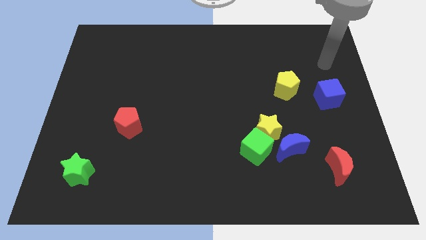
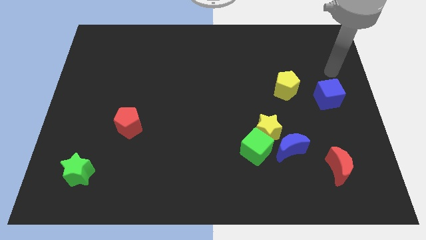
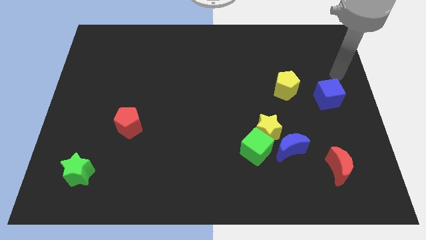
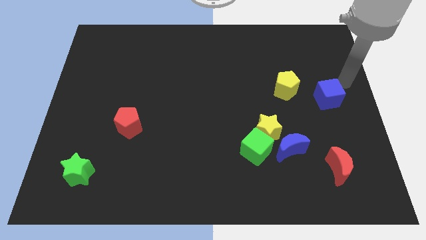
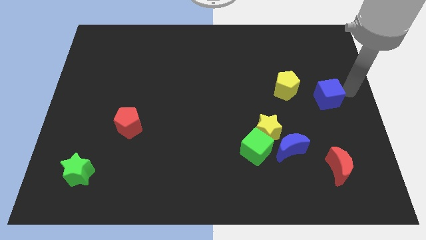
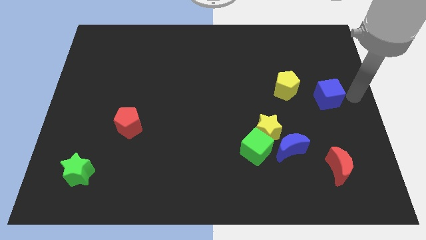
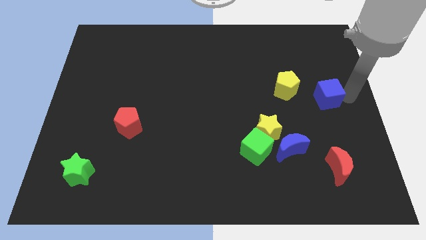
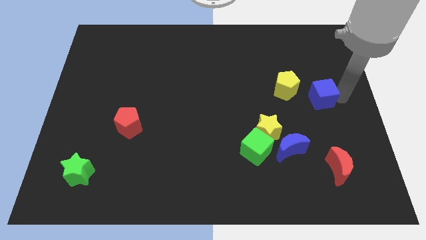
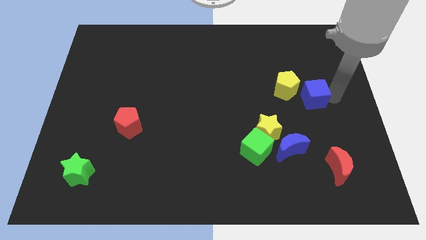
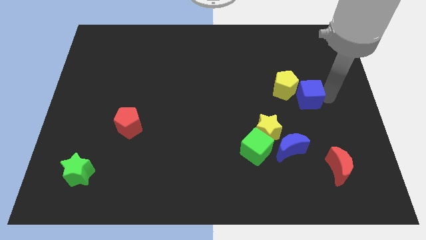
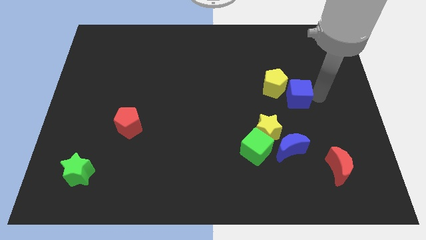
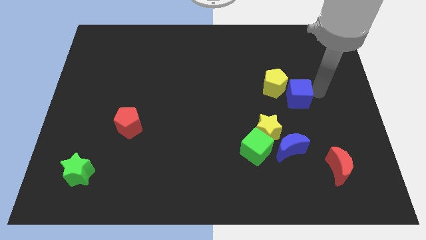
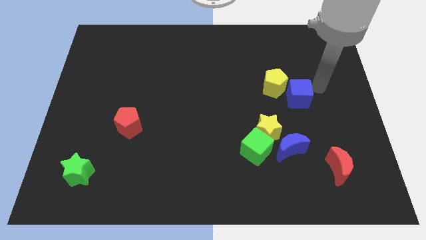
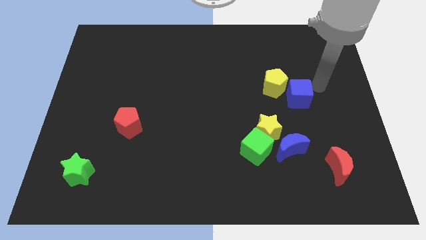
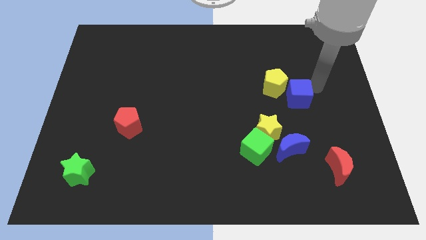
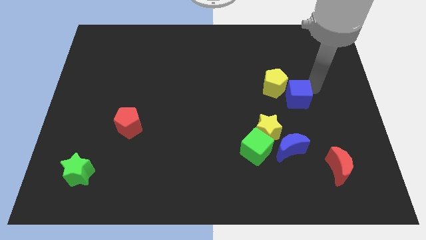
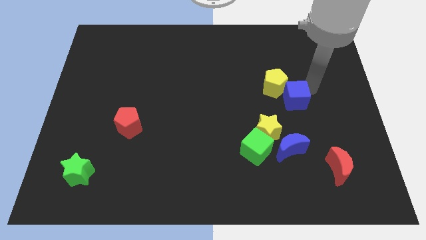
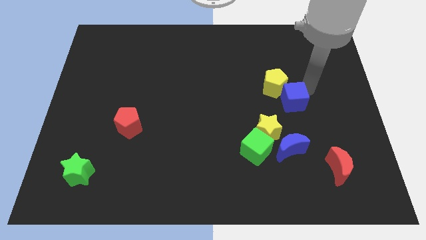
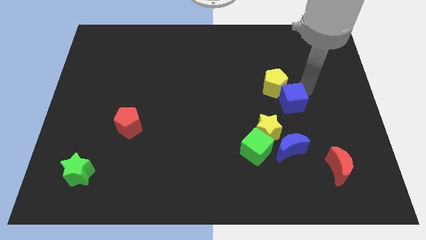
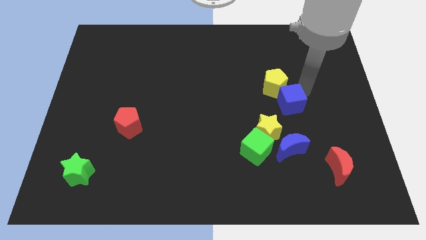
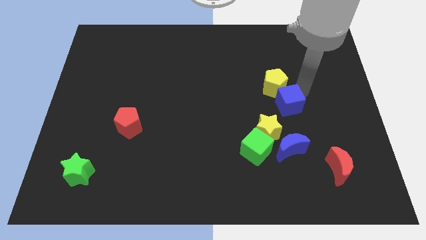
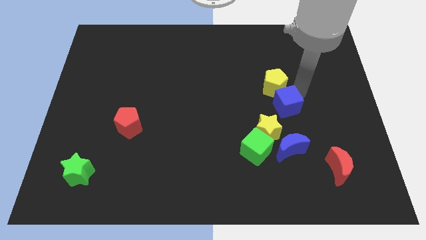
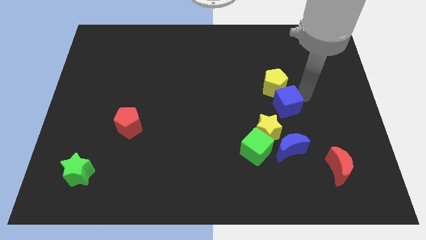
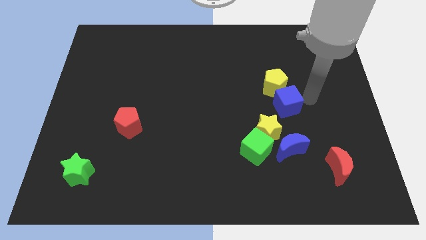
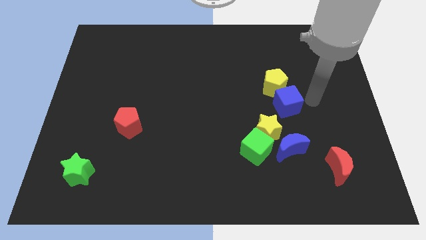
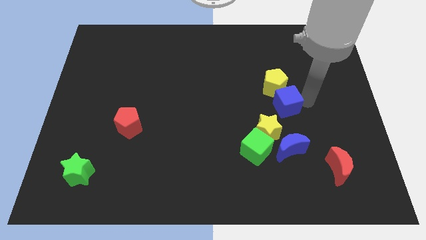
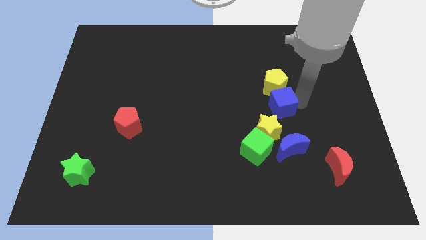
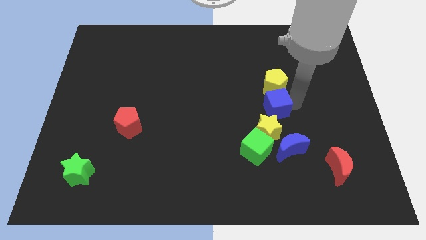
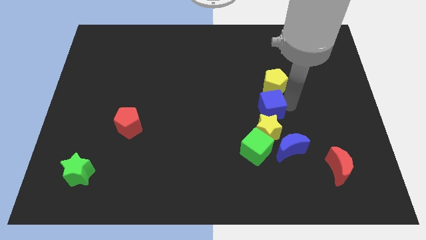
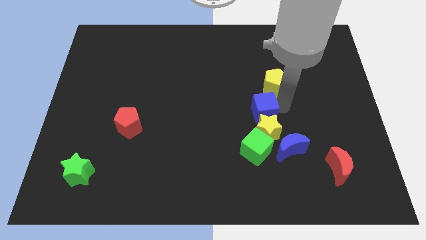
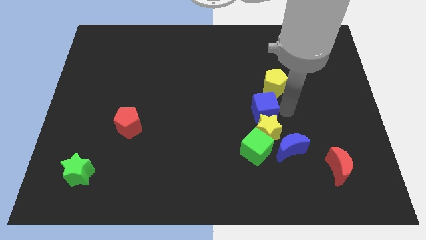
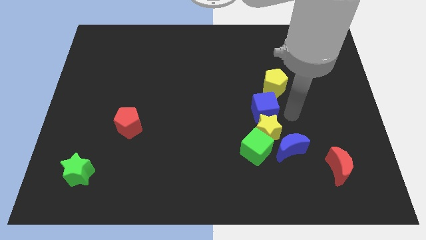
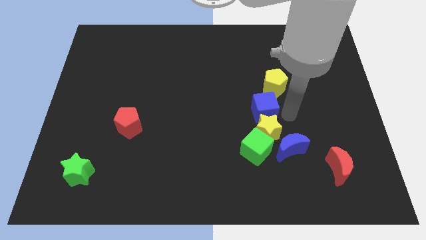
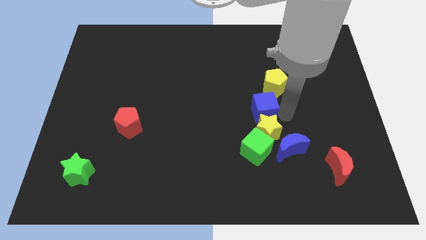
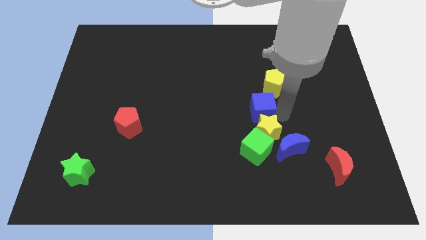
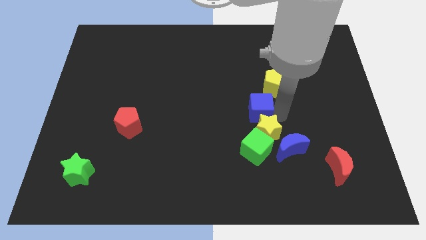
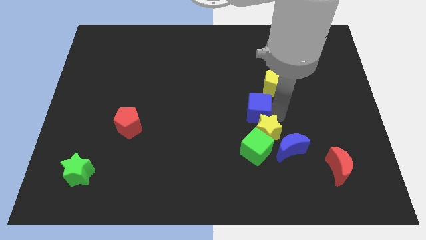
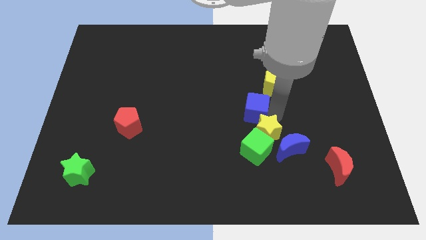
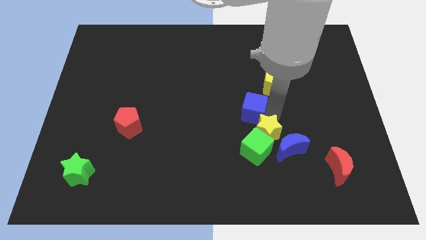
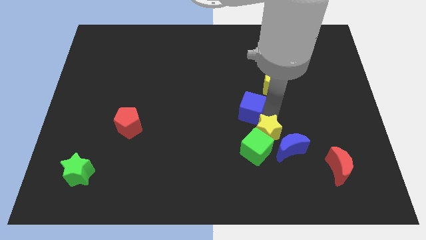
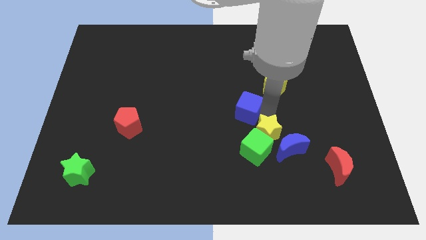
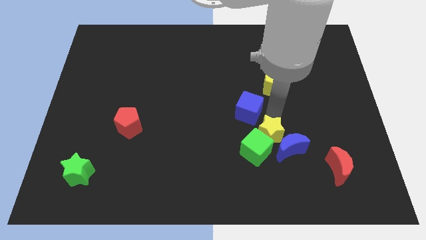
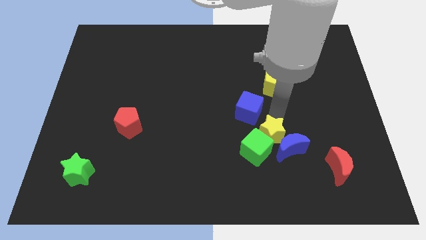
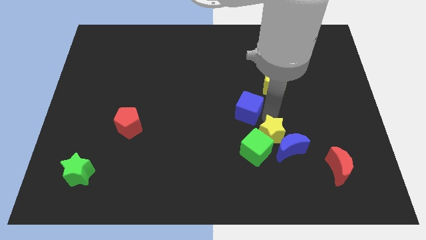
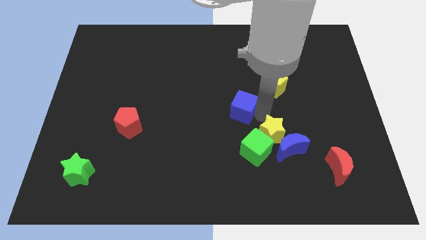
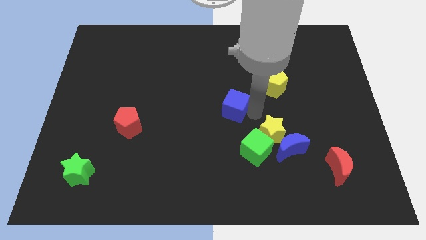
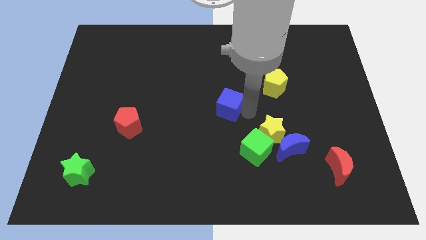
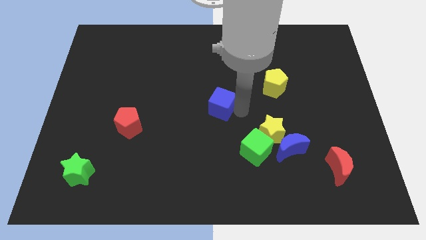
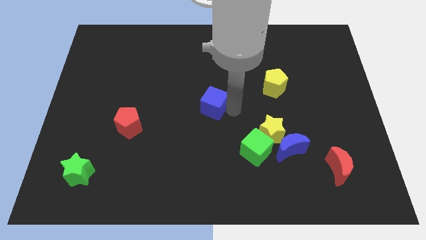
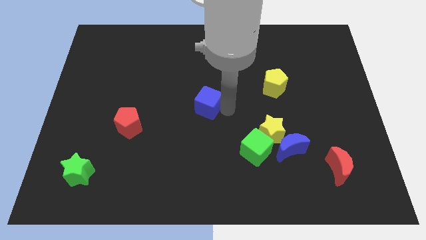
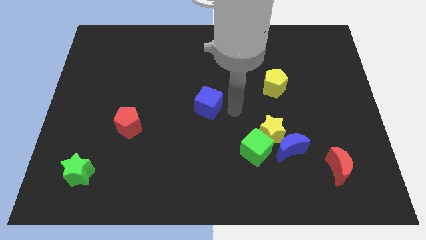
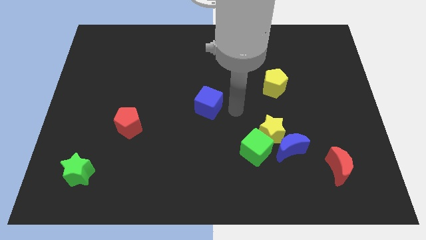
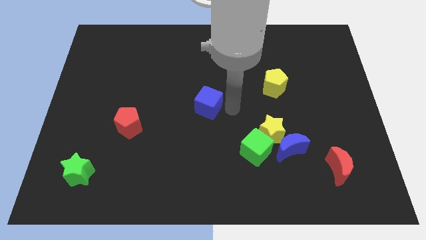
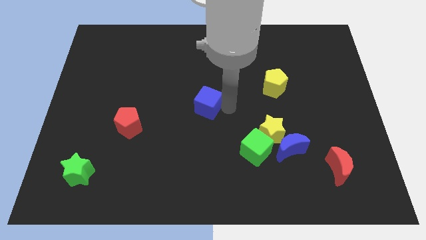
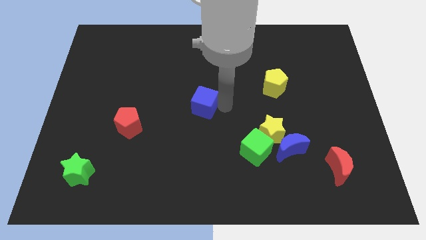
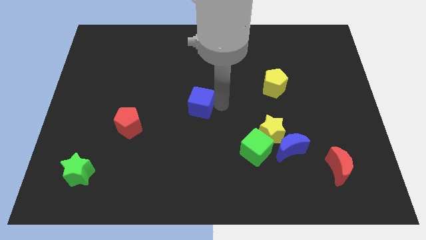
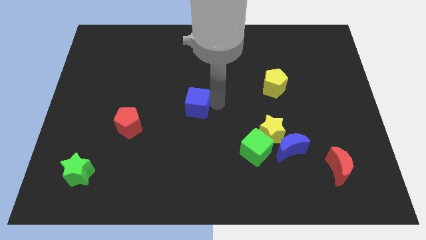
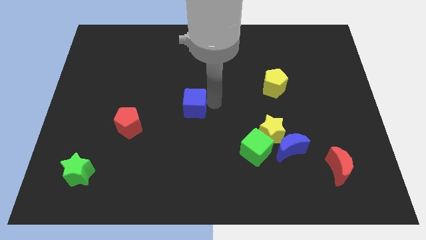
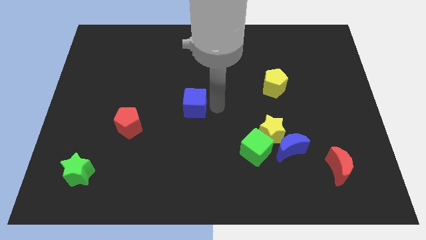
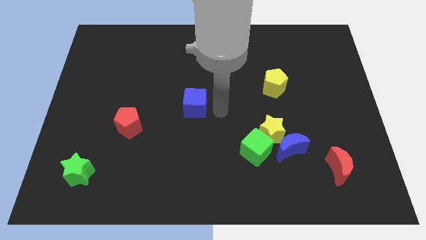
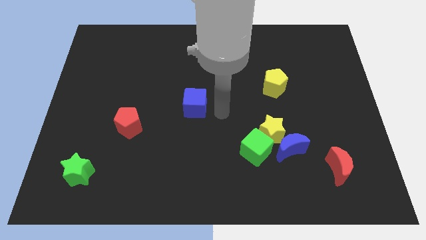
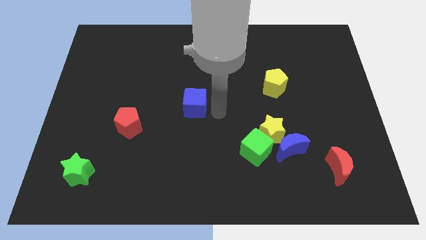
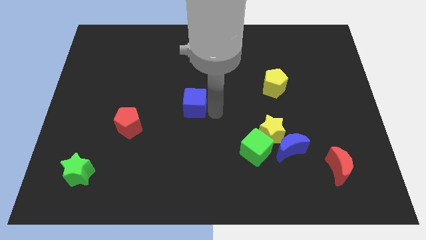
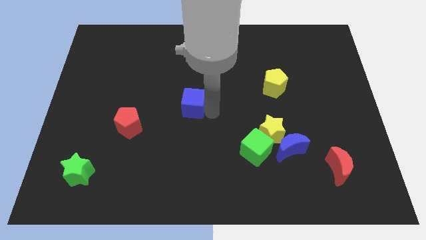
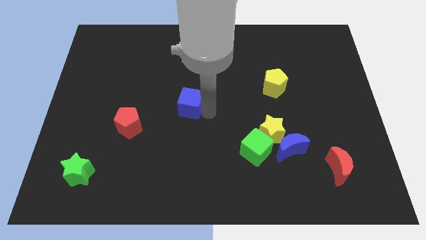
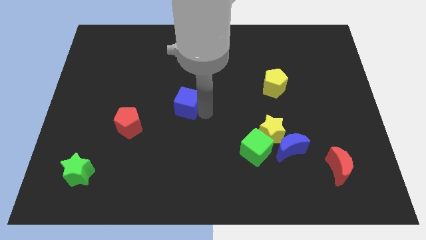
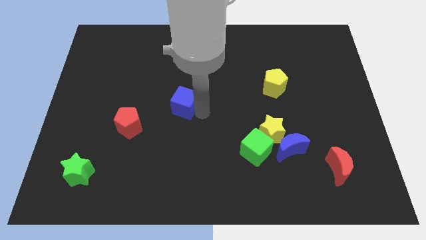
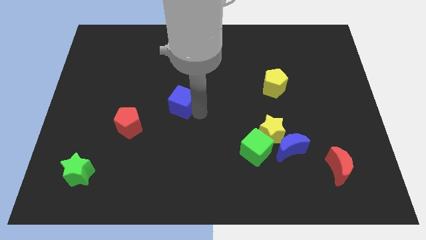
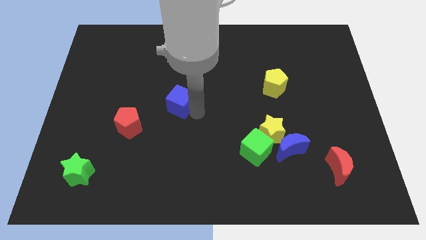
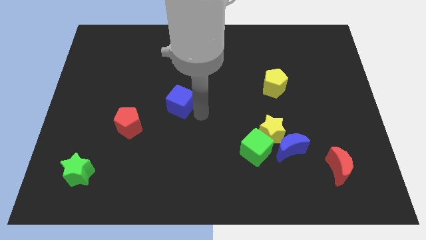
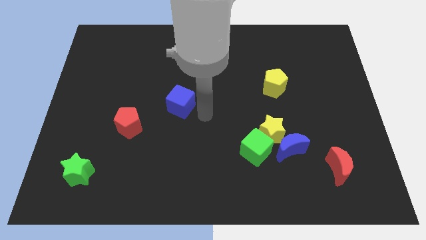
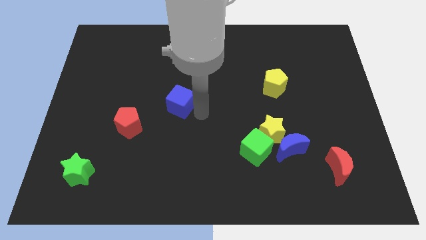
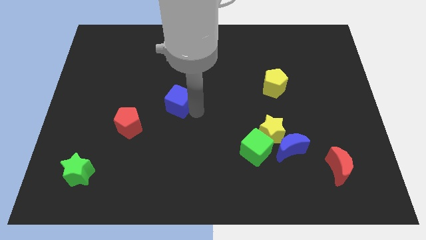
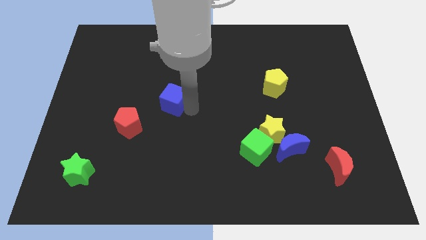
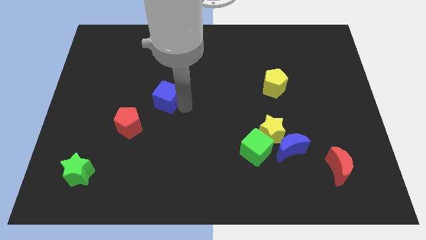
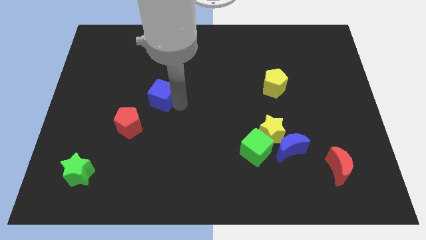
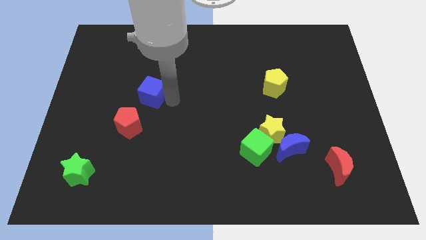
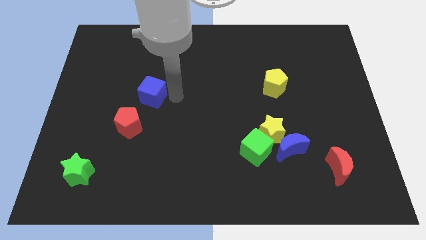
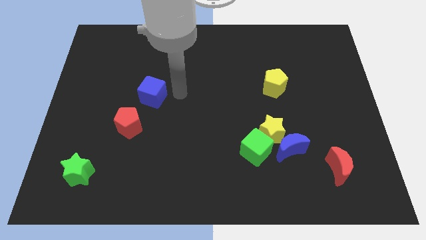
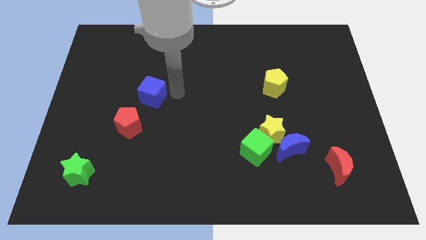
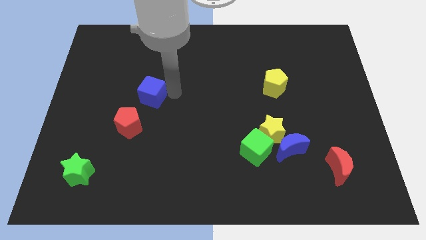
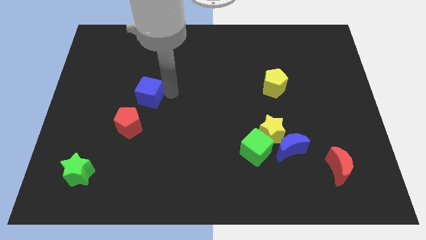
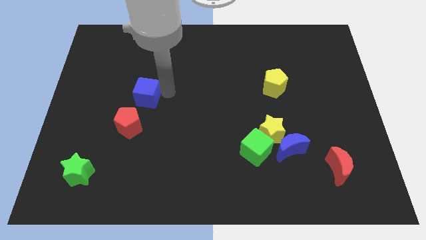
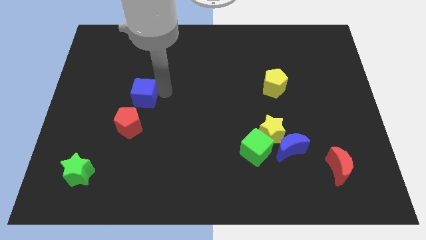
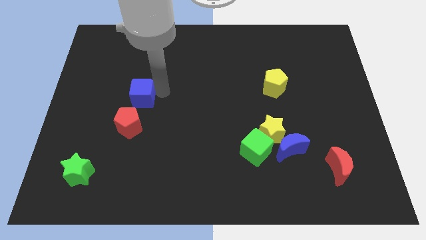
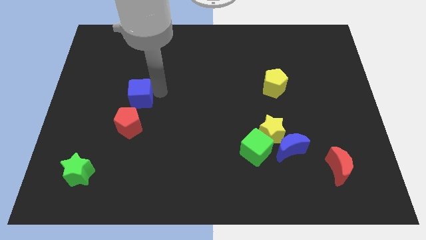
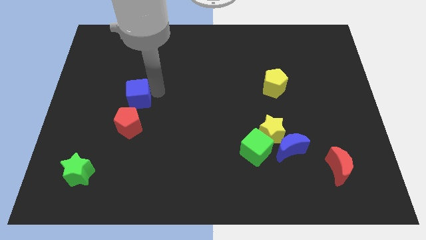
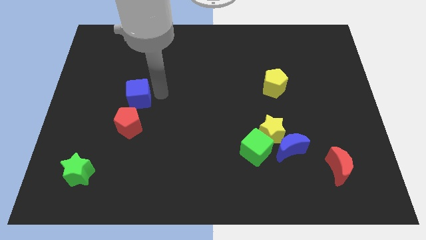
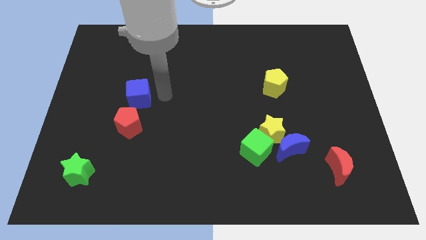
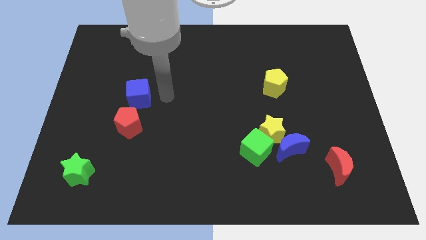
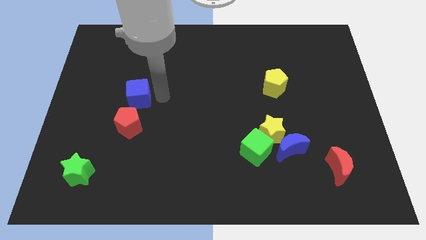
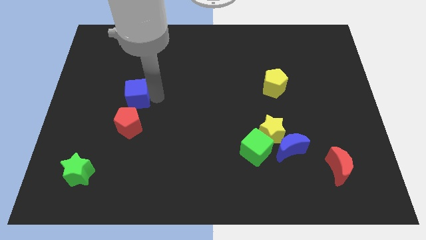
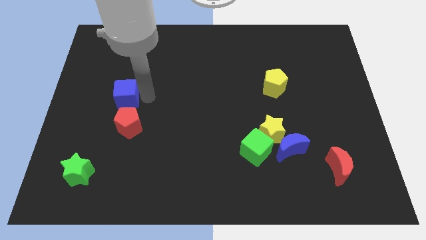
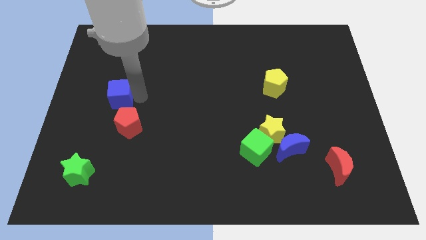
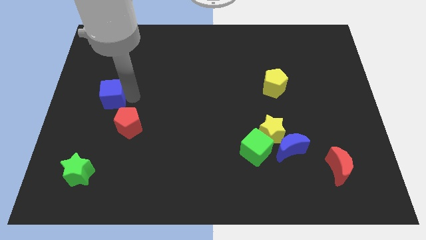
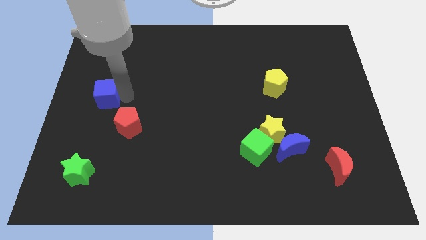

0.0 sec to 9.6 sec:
push the blue cube to the left side of the board
